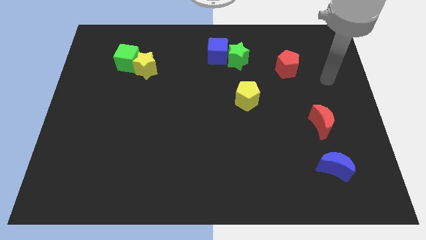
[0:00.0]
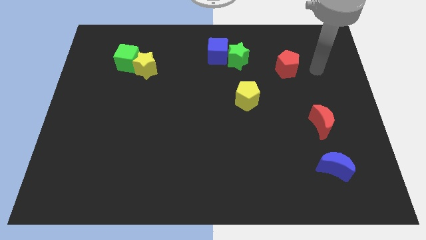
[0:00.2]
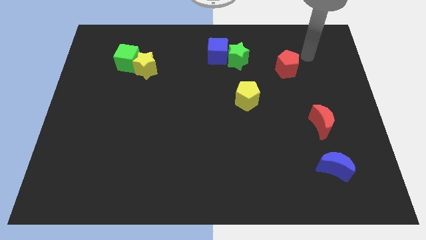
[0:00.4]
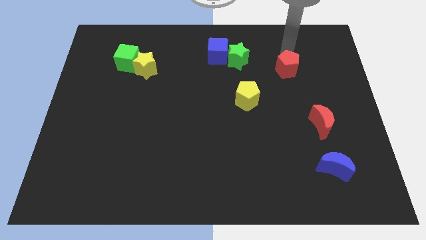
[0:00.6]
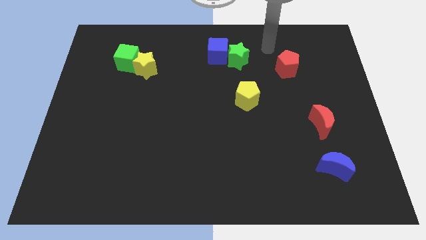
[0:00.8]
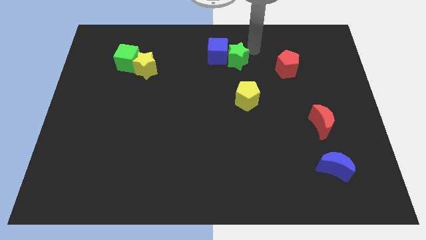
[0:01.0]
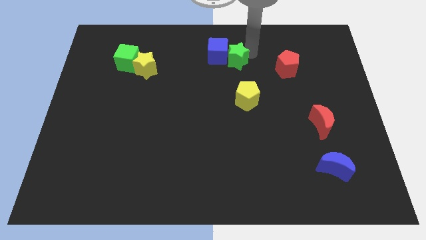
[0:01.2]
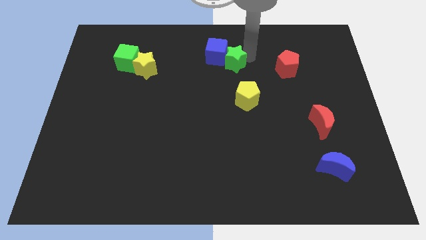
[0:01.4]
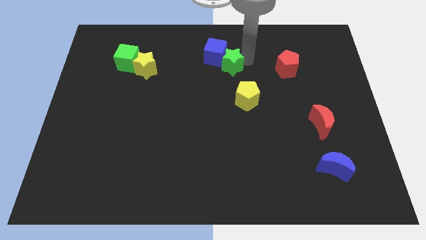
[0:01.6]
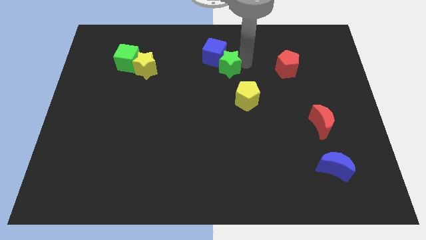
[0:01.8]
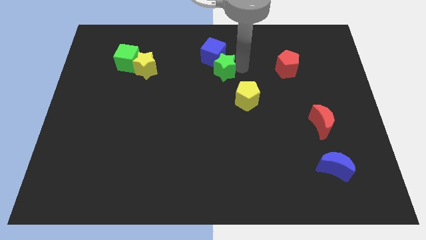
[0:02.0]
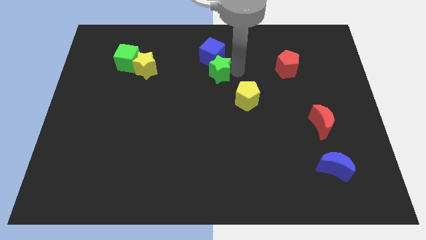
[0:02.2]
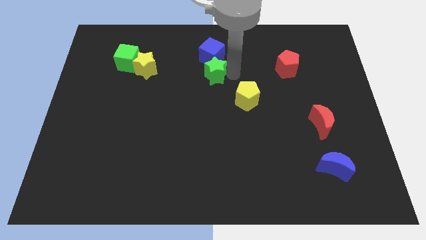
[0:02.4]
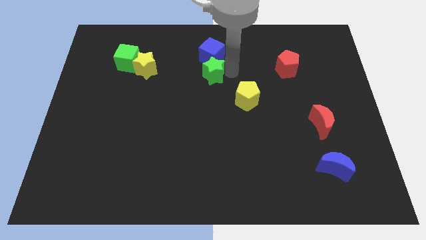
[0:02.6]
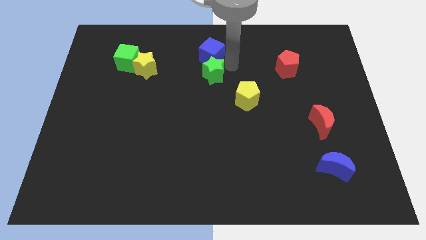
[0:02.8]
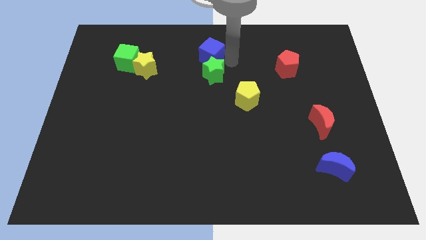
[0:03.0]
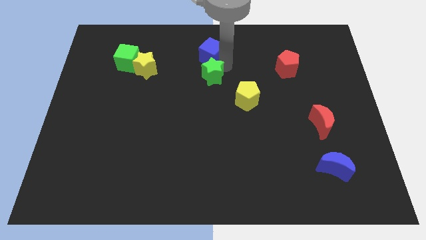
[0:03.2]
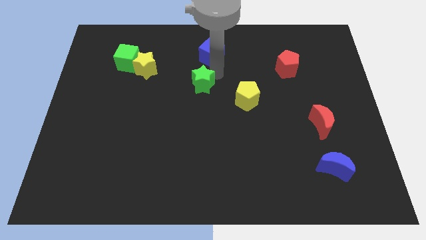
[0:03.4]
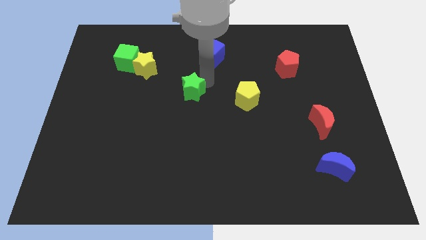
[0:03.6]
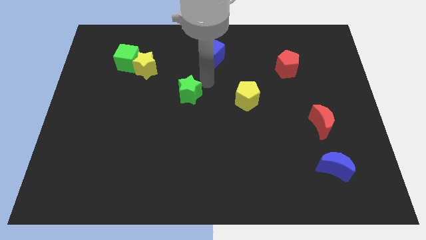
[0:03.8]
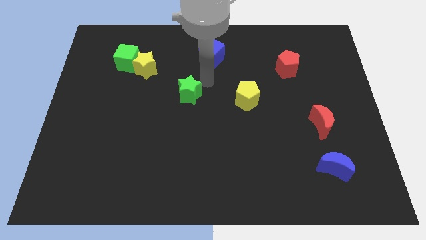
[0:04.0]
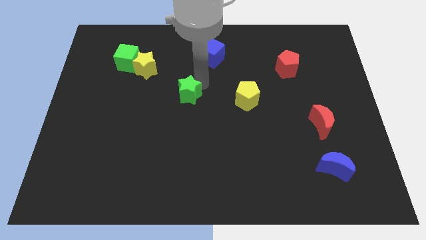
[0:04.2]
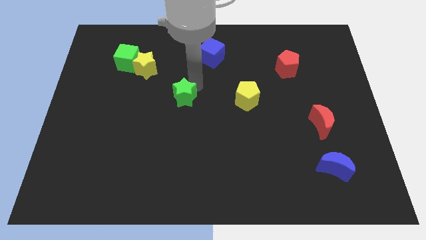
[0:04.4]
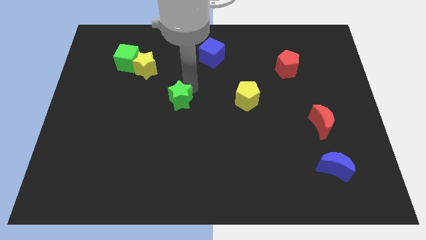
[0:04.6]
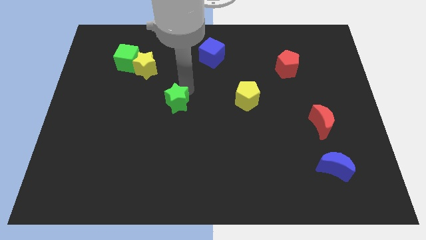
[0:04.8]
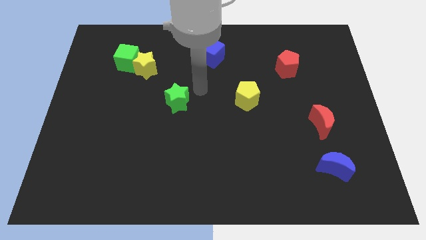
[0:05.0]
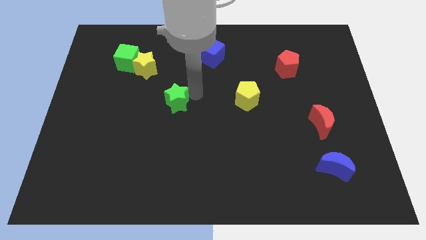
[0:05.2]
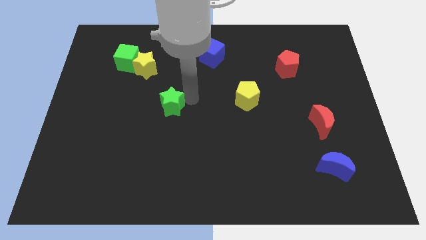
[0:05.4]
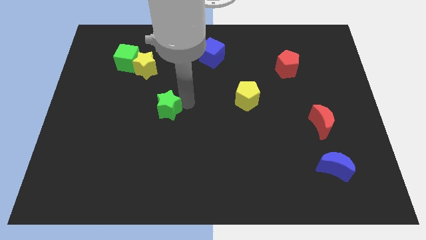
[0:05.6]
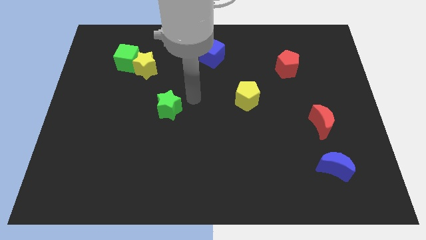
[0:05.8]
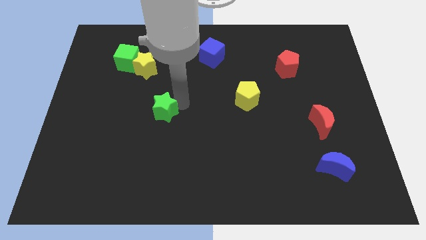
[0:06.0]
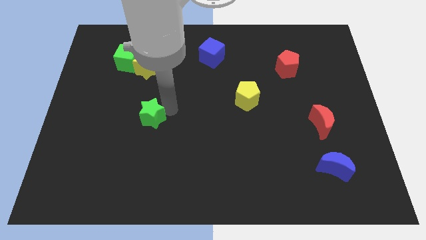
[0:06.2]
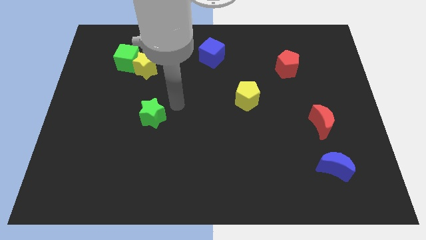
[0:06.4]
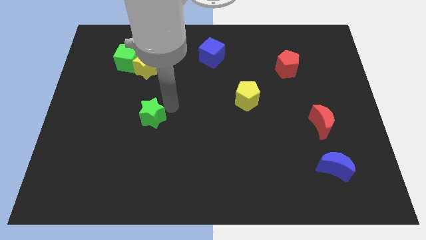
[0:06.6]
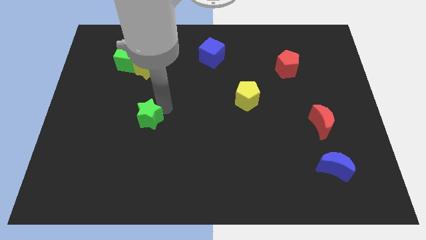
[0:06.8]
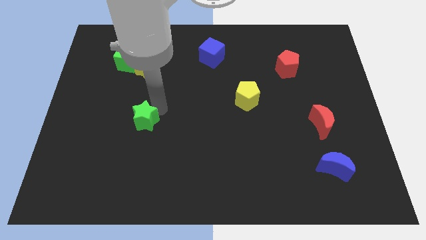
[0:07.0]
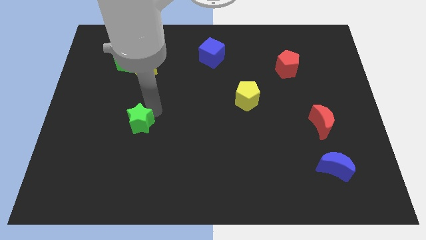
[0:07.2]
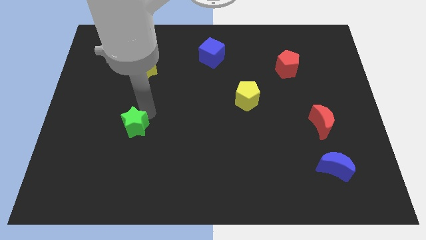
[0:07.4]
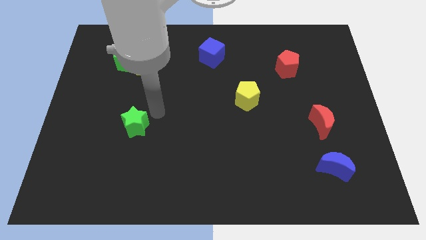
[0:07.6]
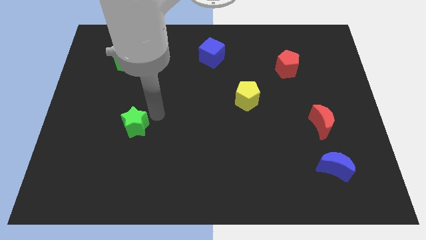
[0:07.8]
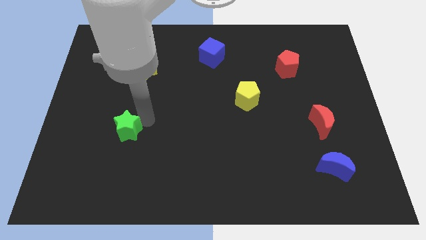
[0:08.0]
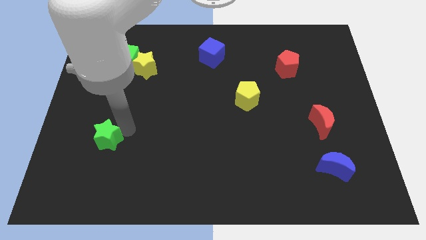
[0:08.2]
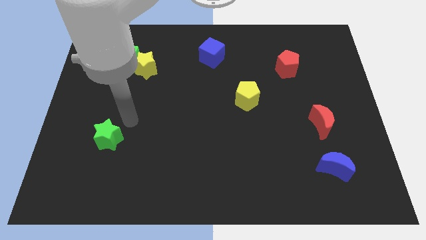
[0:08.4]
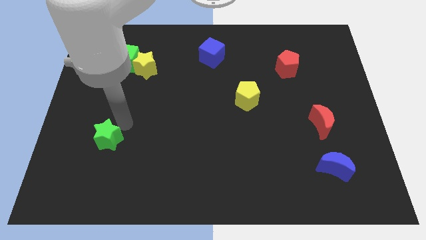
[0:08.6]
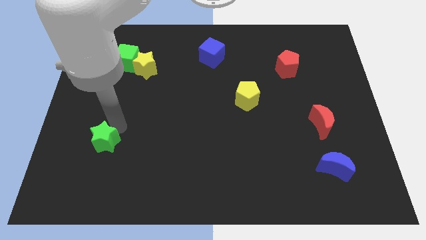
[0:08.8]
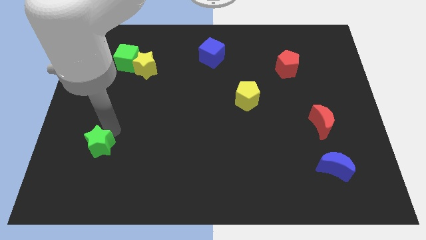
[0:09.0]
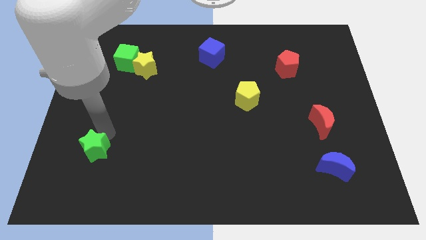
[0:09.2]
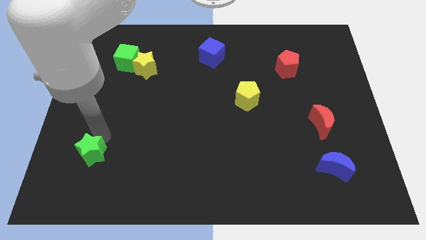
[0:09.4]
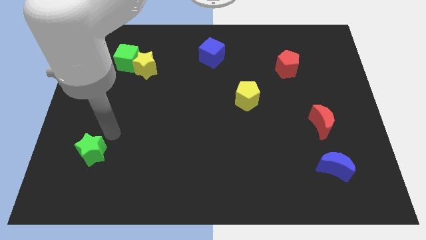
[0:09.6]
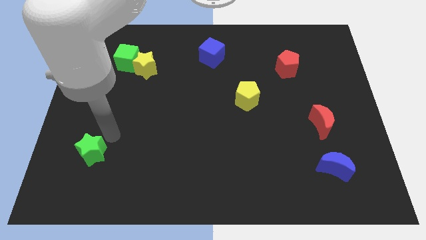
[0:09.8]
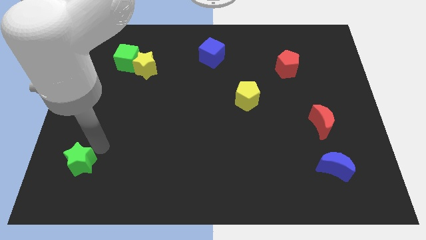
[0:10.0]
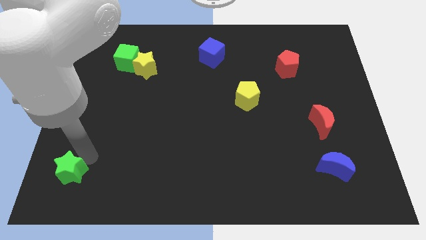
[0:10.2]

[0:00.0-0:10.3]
slide the green star to the lower left corner
